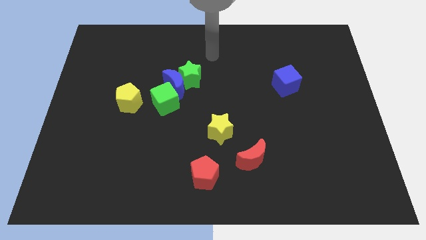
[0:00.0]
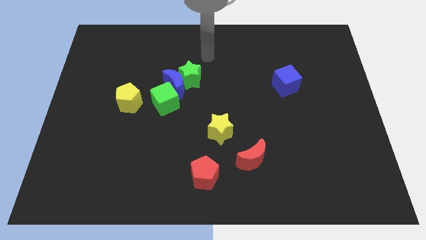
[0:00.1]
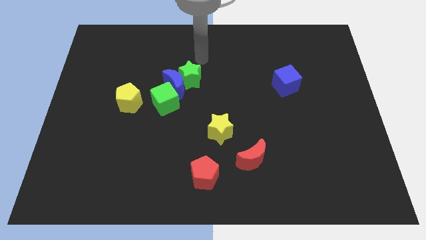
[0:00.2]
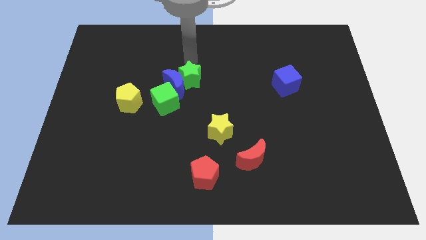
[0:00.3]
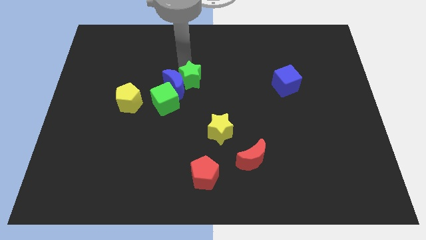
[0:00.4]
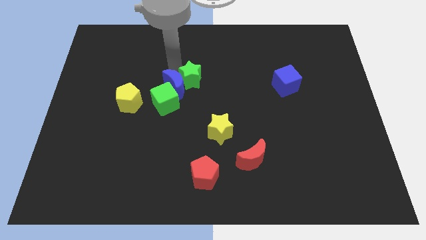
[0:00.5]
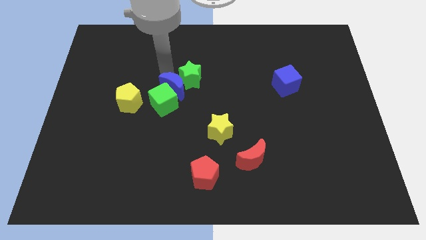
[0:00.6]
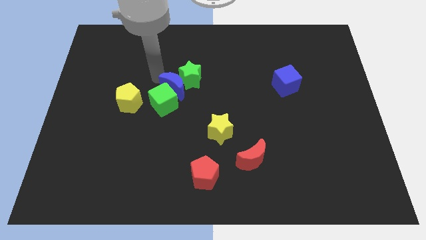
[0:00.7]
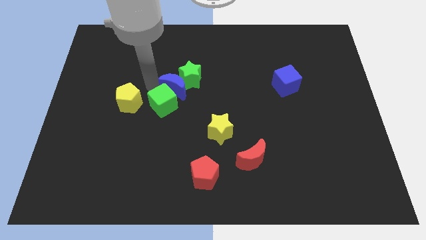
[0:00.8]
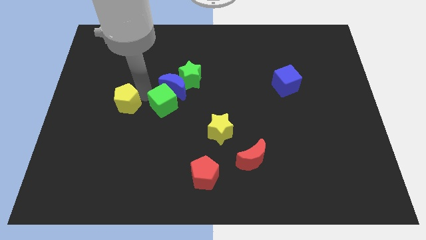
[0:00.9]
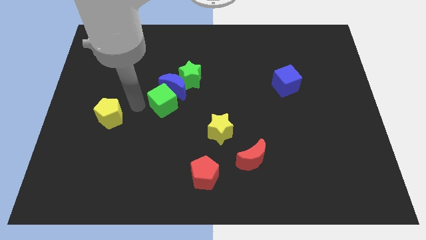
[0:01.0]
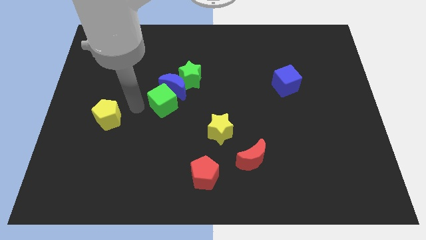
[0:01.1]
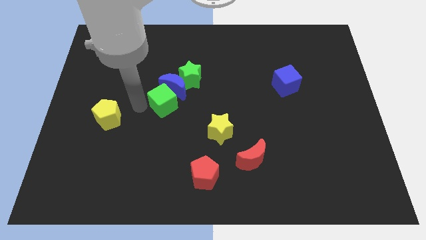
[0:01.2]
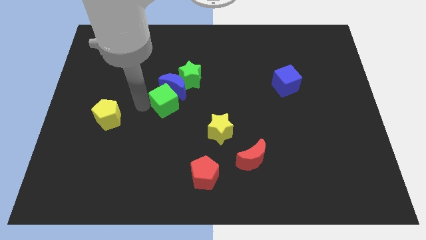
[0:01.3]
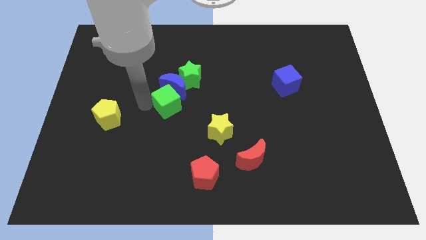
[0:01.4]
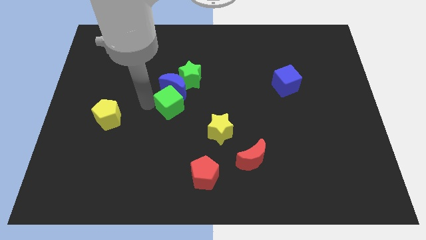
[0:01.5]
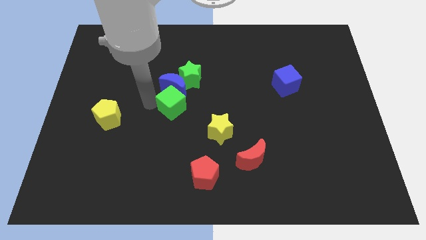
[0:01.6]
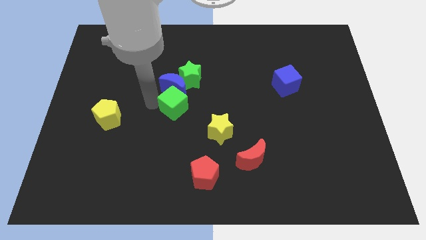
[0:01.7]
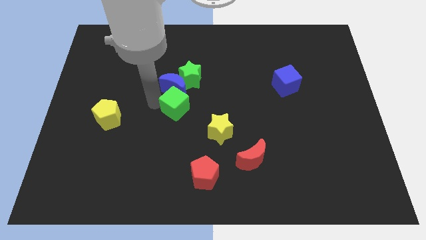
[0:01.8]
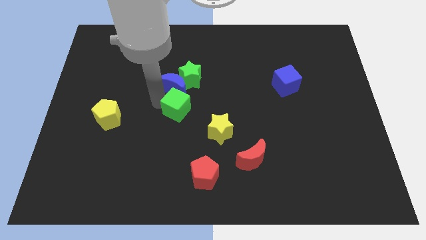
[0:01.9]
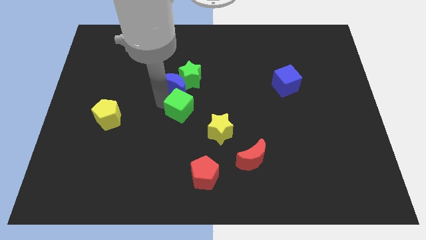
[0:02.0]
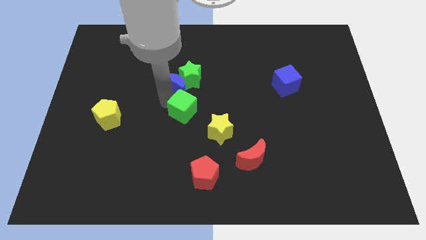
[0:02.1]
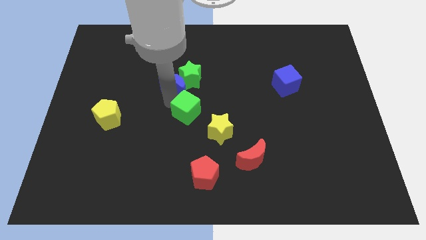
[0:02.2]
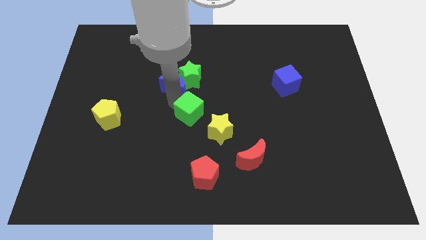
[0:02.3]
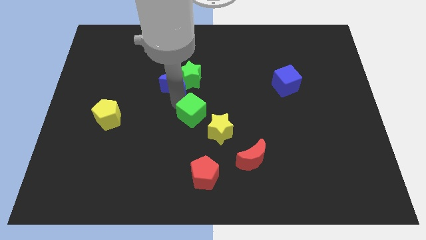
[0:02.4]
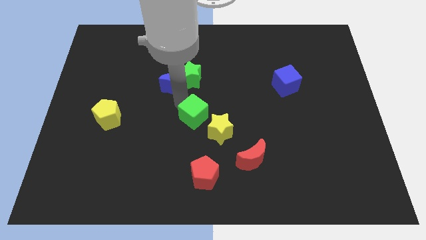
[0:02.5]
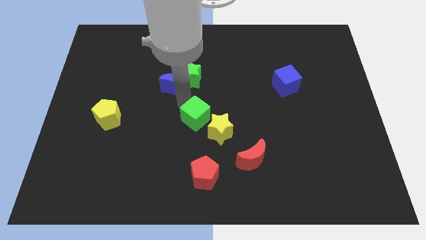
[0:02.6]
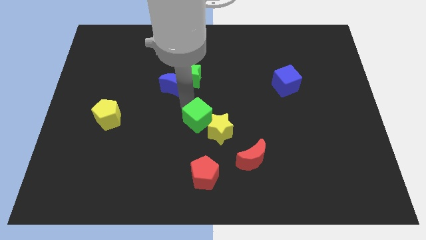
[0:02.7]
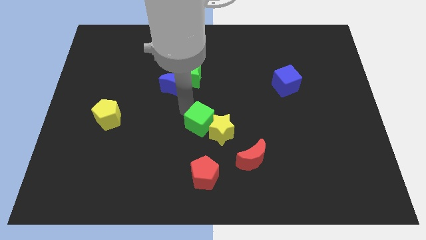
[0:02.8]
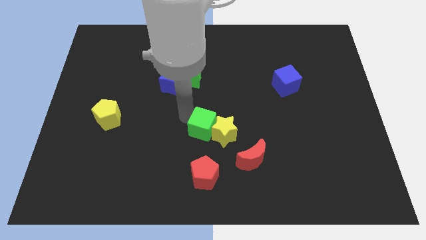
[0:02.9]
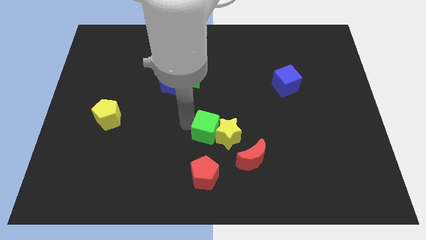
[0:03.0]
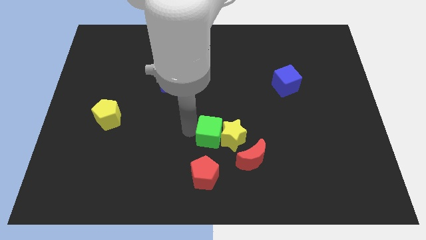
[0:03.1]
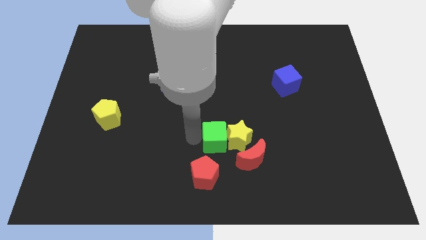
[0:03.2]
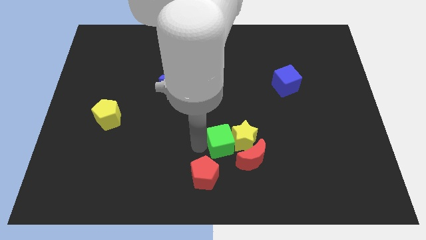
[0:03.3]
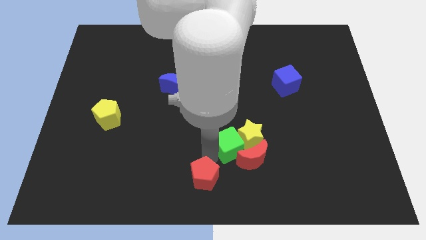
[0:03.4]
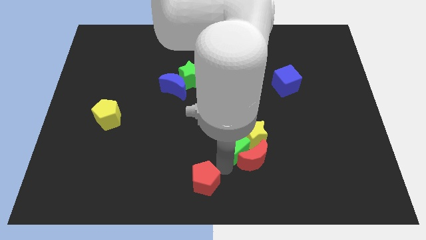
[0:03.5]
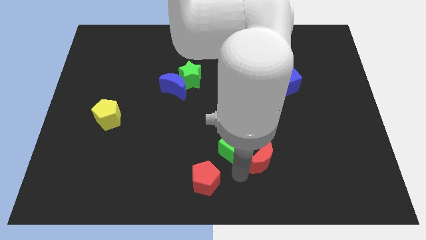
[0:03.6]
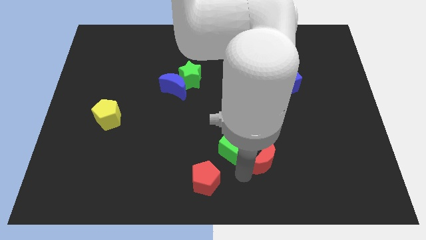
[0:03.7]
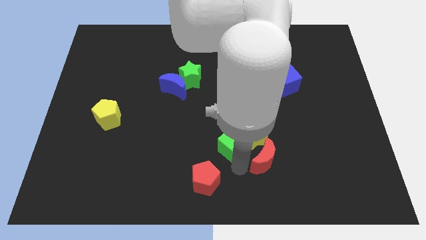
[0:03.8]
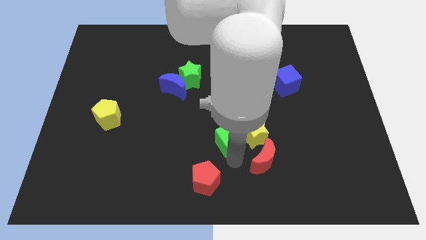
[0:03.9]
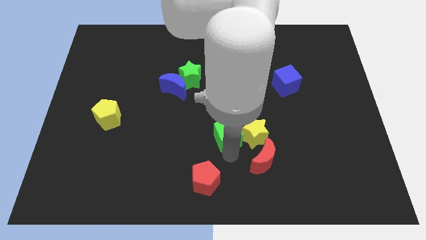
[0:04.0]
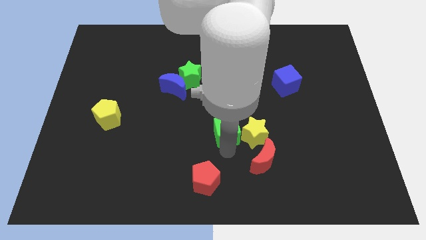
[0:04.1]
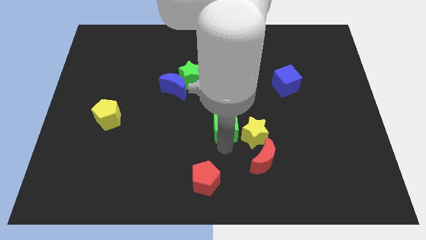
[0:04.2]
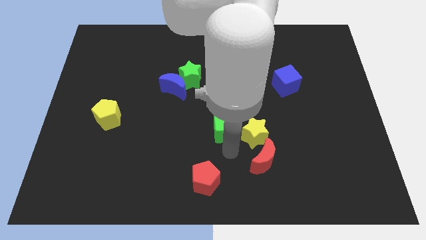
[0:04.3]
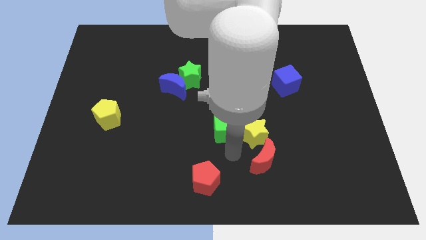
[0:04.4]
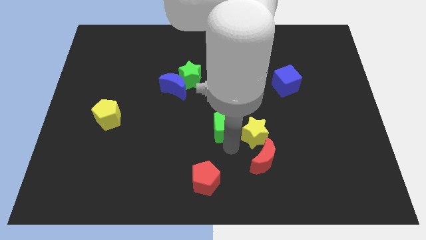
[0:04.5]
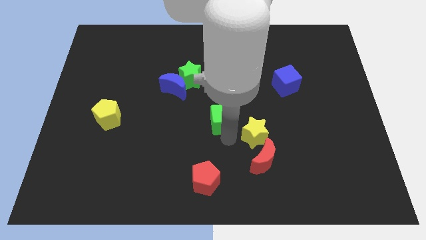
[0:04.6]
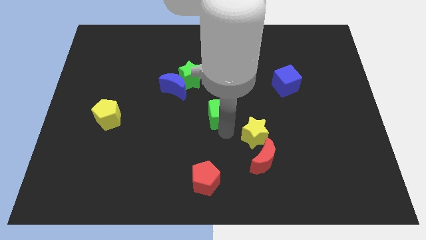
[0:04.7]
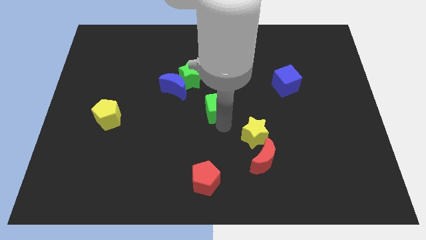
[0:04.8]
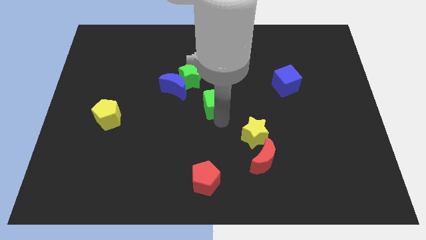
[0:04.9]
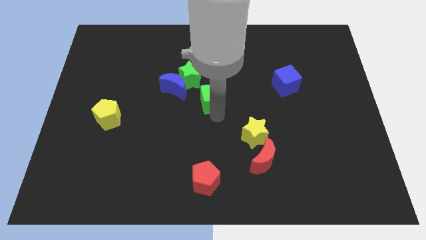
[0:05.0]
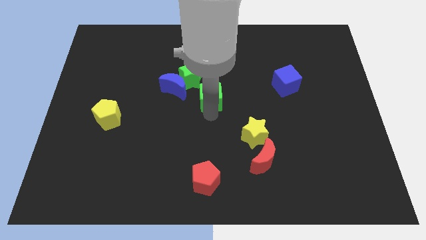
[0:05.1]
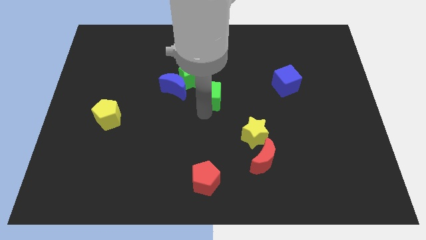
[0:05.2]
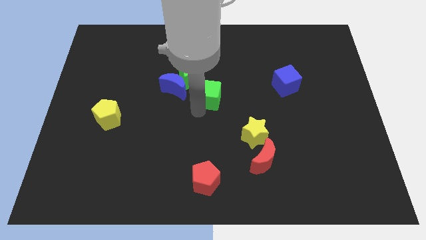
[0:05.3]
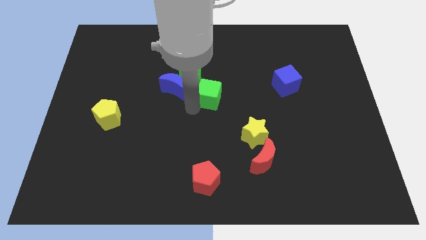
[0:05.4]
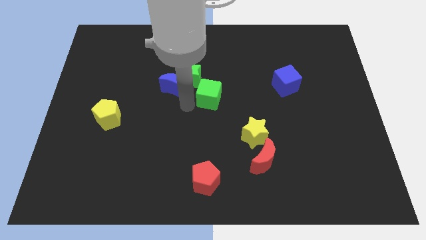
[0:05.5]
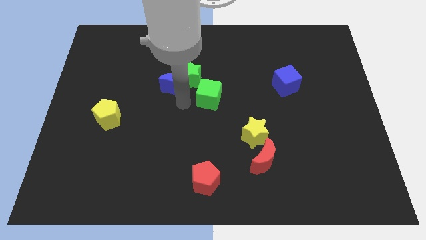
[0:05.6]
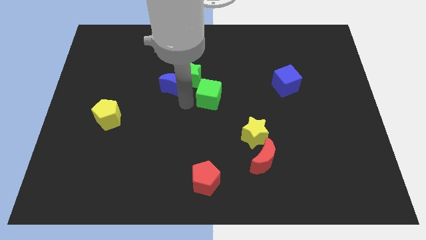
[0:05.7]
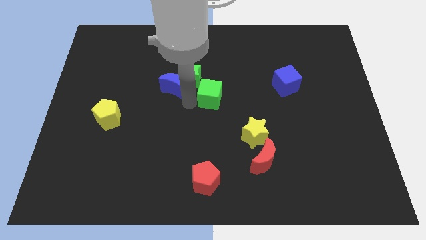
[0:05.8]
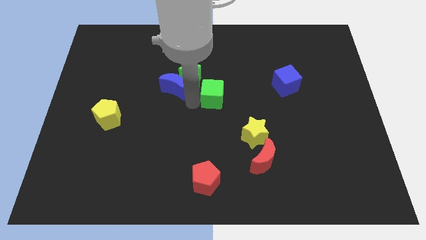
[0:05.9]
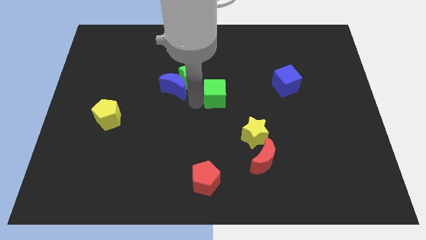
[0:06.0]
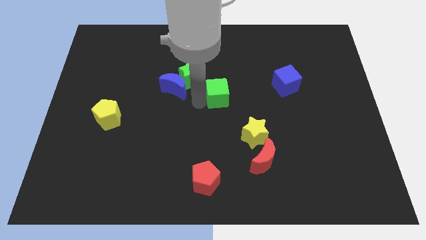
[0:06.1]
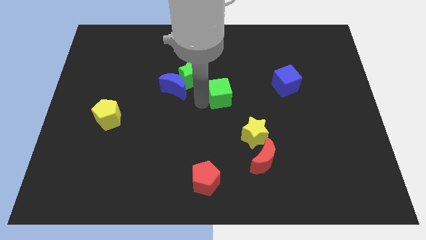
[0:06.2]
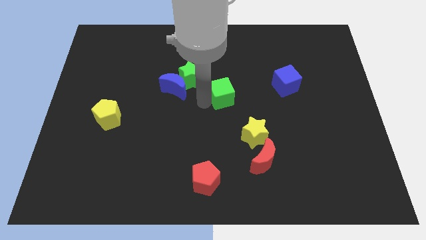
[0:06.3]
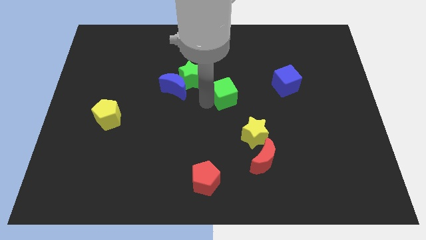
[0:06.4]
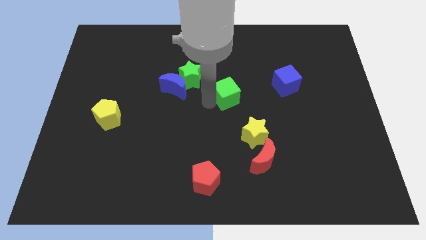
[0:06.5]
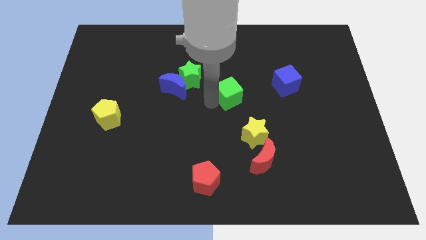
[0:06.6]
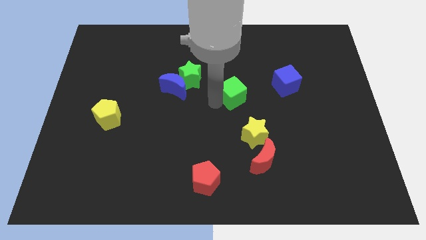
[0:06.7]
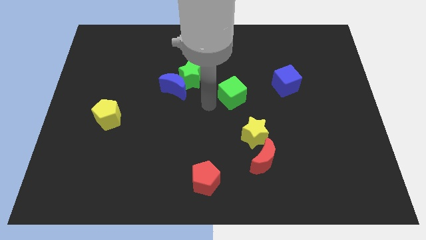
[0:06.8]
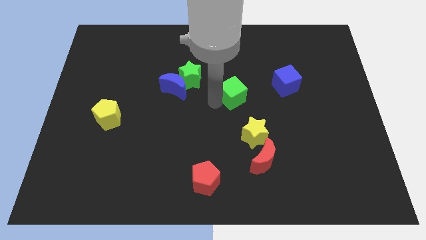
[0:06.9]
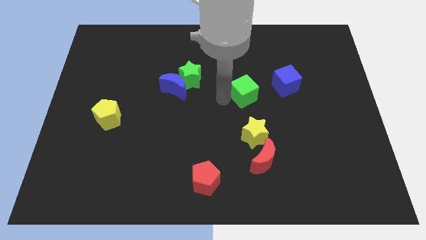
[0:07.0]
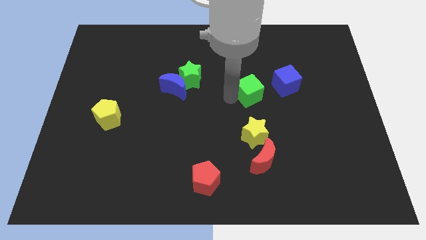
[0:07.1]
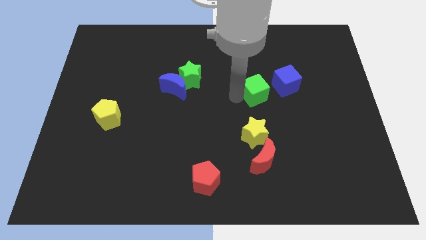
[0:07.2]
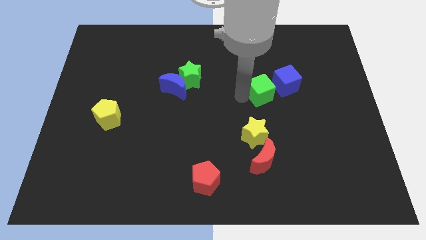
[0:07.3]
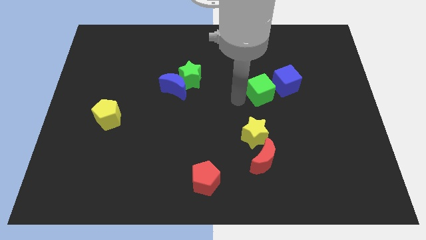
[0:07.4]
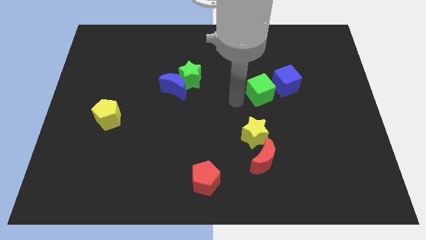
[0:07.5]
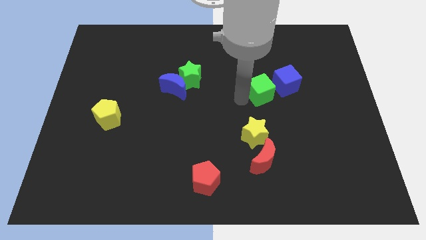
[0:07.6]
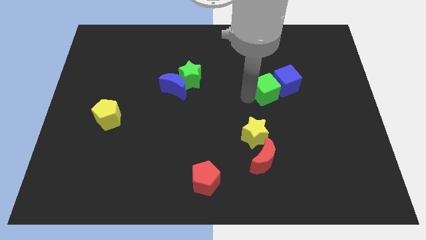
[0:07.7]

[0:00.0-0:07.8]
push the green cube towards the blue cube
